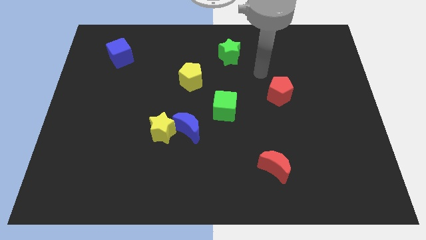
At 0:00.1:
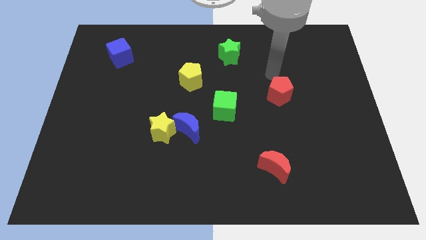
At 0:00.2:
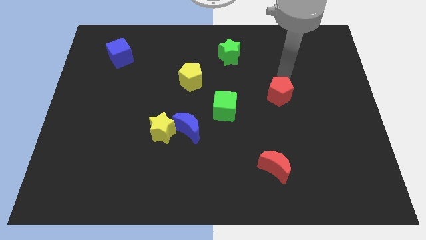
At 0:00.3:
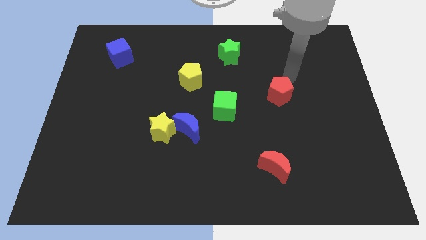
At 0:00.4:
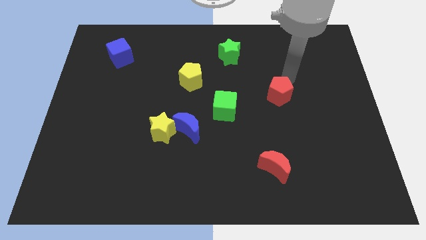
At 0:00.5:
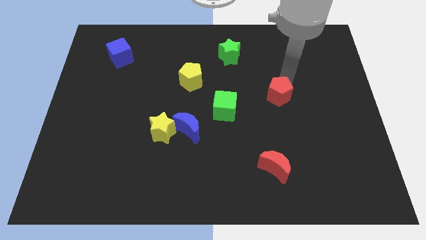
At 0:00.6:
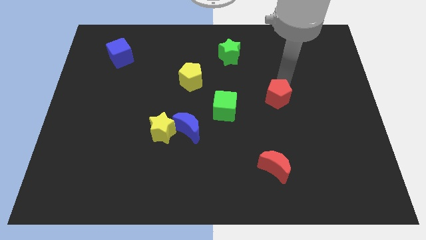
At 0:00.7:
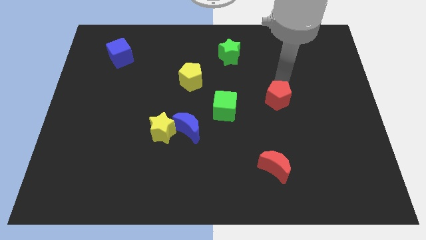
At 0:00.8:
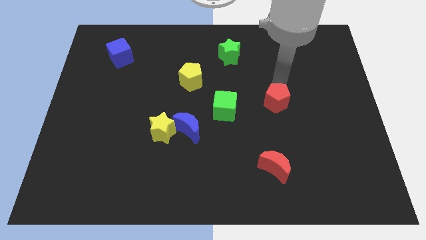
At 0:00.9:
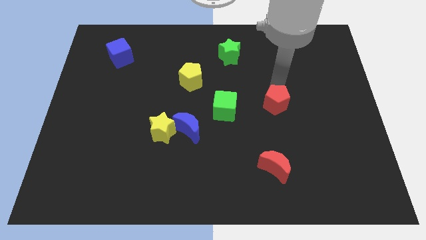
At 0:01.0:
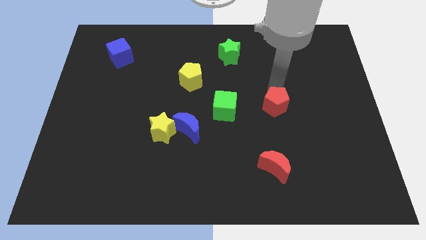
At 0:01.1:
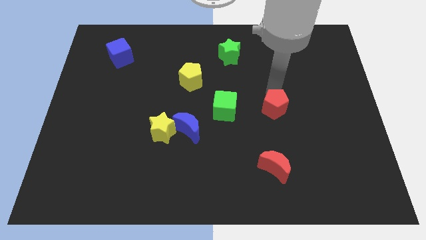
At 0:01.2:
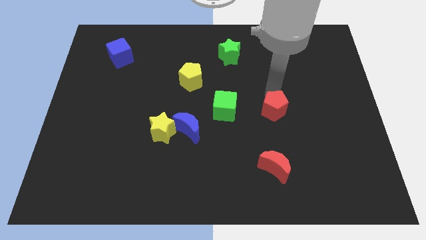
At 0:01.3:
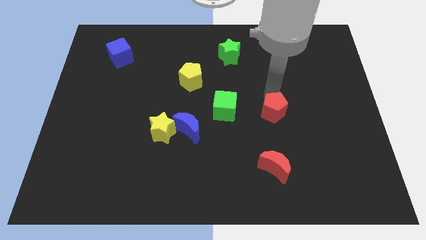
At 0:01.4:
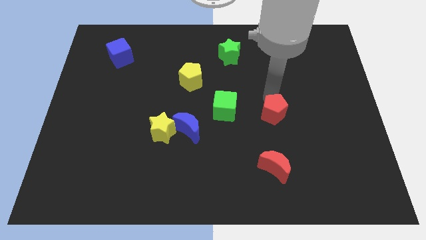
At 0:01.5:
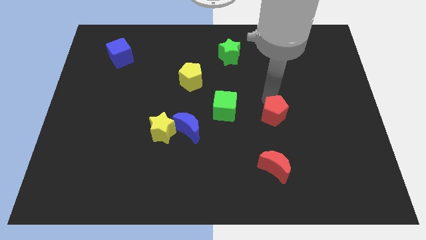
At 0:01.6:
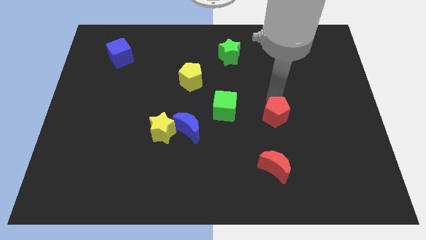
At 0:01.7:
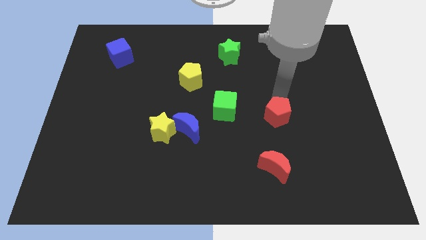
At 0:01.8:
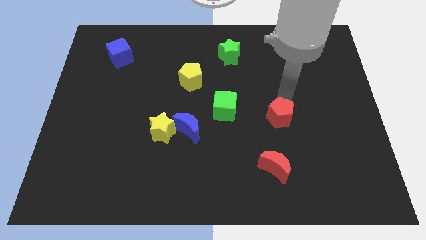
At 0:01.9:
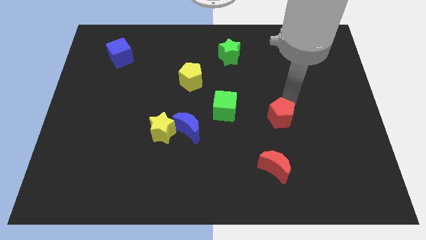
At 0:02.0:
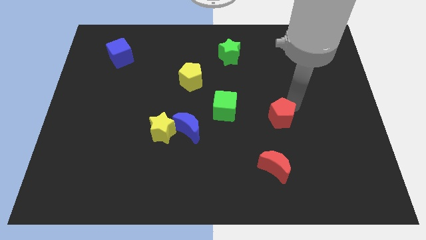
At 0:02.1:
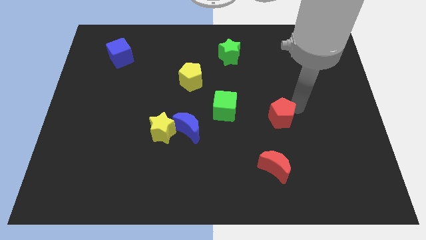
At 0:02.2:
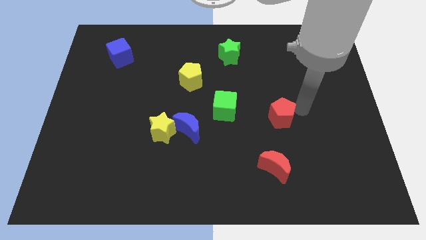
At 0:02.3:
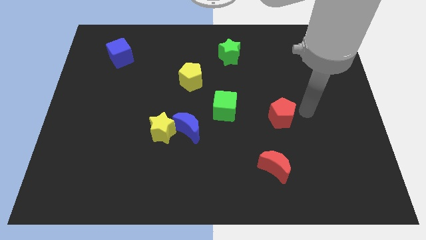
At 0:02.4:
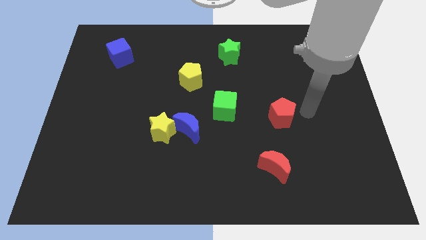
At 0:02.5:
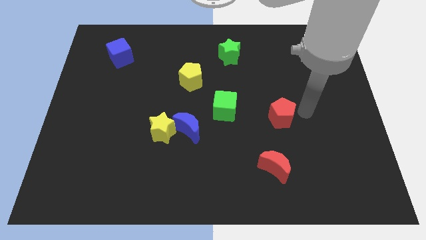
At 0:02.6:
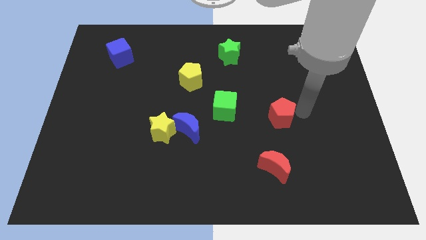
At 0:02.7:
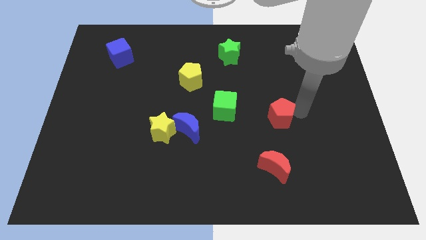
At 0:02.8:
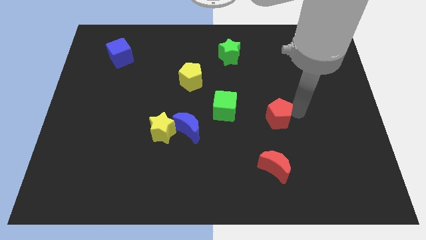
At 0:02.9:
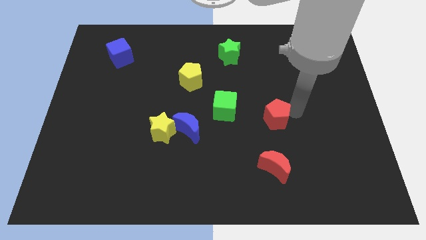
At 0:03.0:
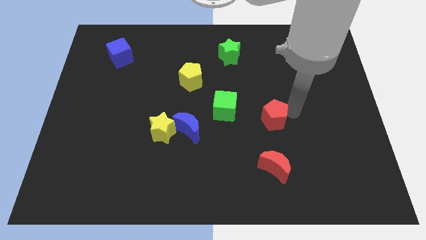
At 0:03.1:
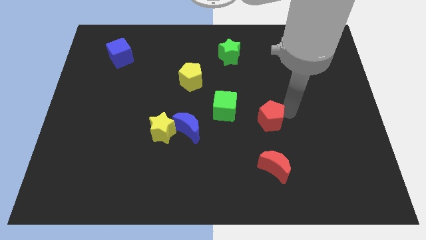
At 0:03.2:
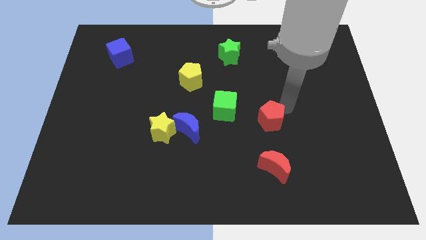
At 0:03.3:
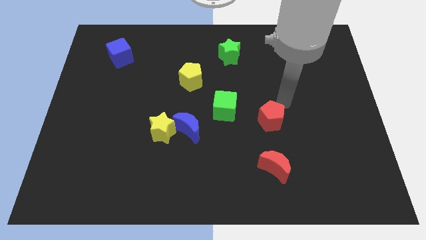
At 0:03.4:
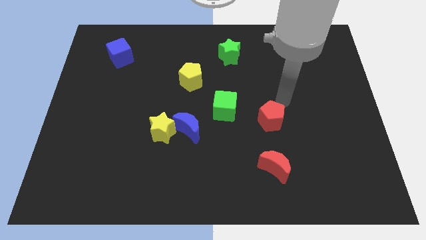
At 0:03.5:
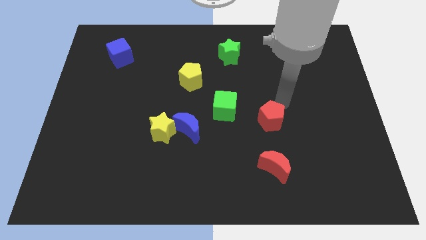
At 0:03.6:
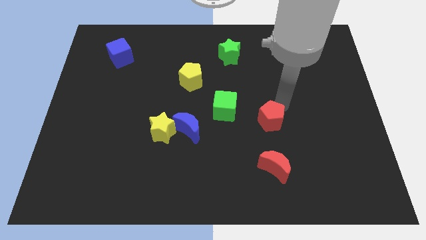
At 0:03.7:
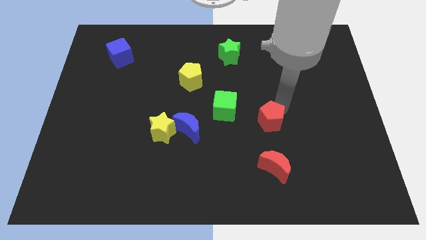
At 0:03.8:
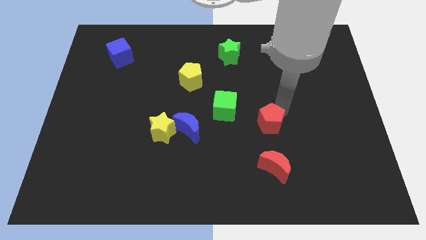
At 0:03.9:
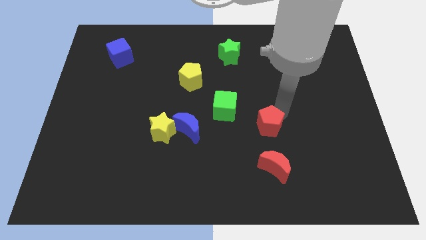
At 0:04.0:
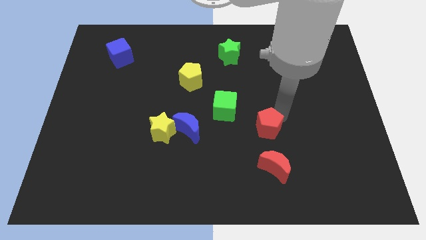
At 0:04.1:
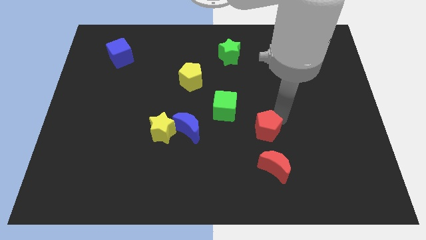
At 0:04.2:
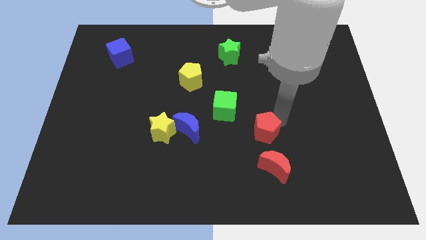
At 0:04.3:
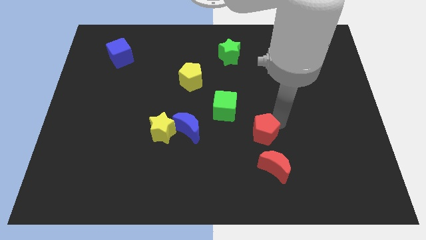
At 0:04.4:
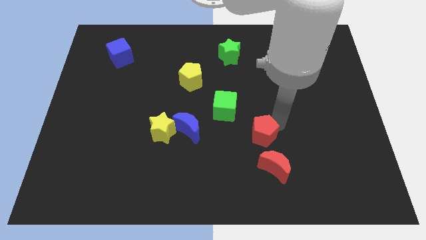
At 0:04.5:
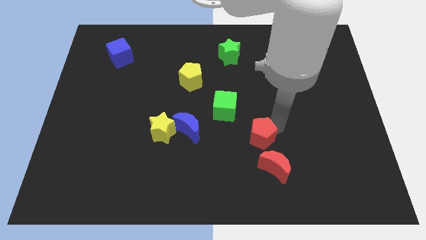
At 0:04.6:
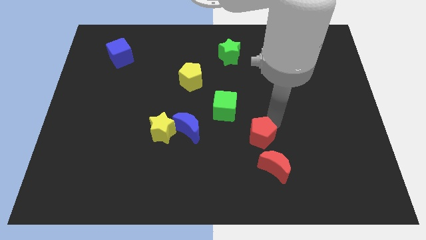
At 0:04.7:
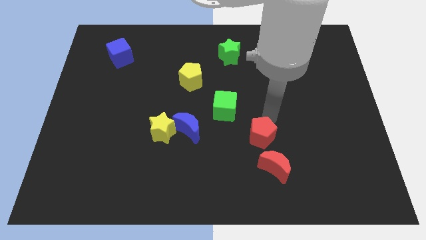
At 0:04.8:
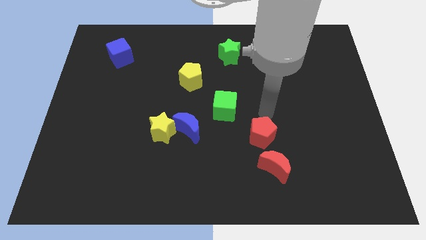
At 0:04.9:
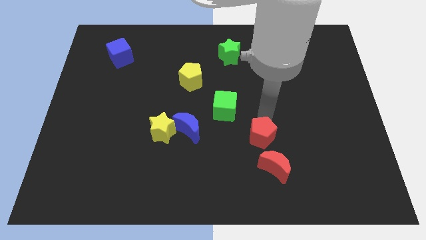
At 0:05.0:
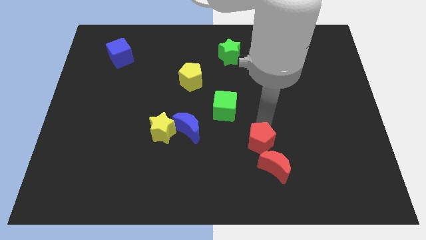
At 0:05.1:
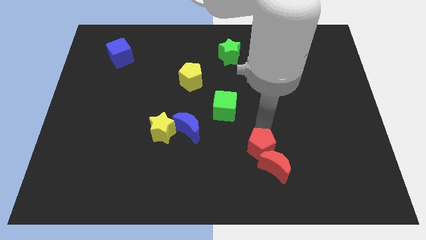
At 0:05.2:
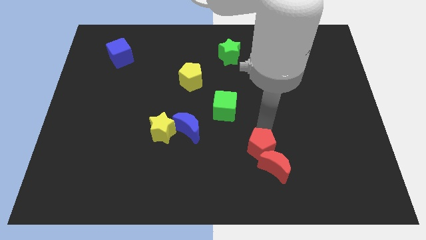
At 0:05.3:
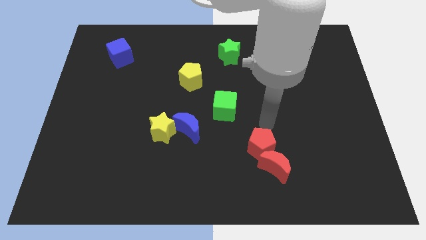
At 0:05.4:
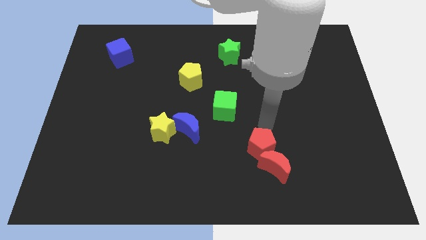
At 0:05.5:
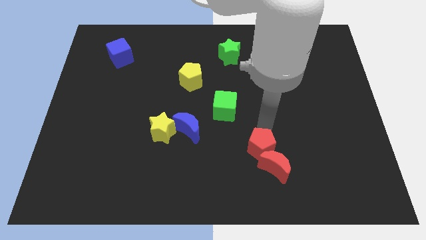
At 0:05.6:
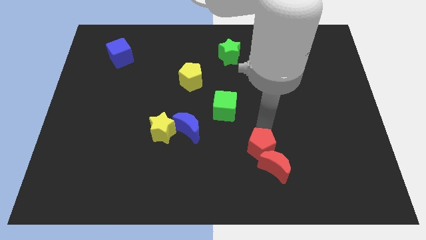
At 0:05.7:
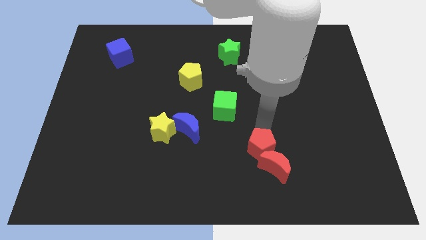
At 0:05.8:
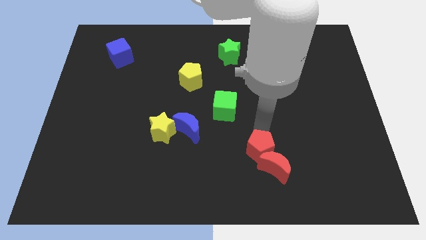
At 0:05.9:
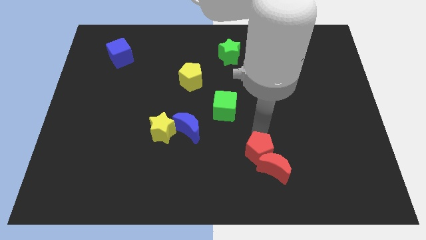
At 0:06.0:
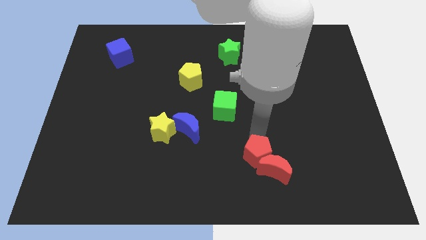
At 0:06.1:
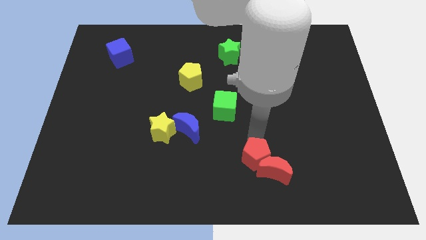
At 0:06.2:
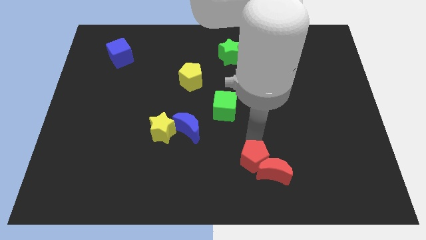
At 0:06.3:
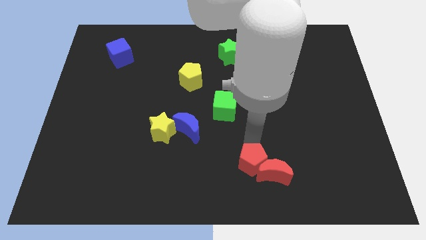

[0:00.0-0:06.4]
put the red pentagon to the bottom
